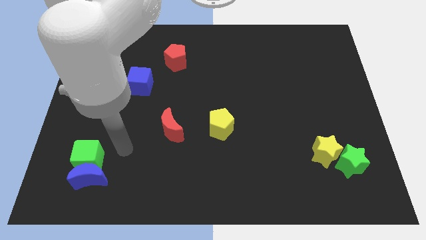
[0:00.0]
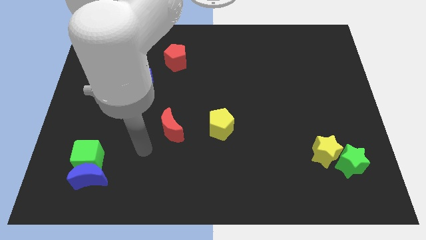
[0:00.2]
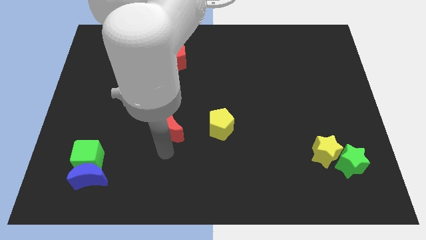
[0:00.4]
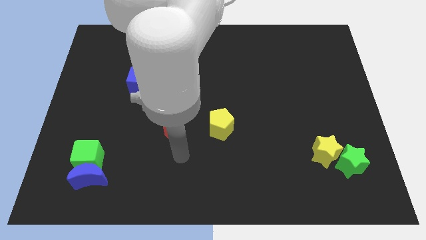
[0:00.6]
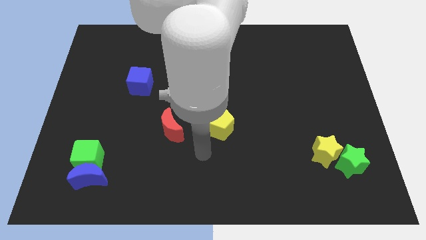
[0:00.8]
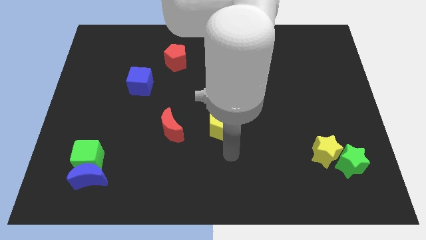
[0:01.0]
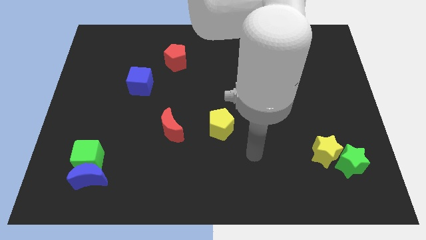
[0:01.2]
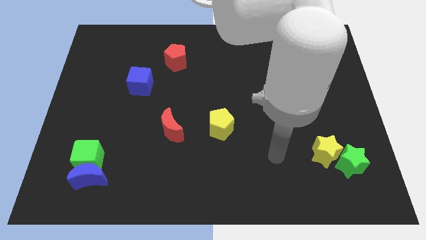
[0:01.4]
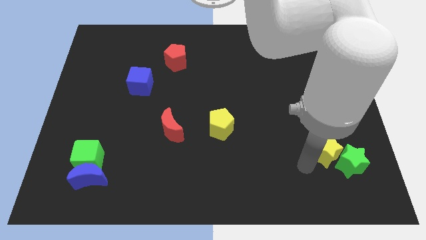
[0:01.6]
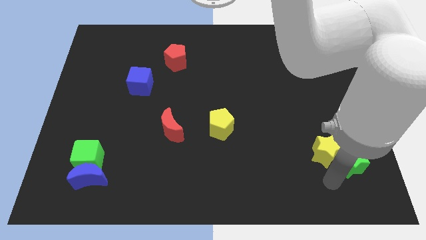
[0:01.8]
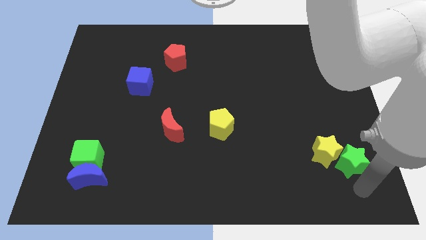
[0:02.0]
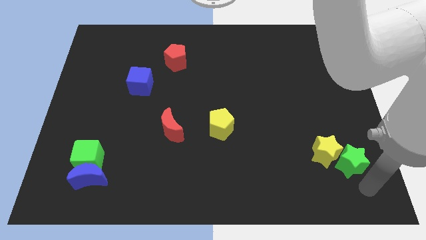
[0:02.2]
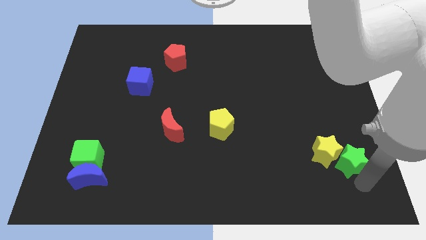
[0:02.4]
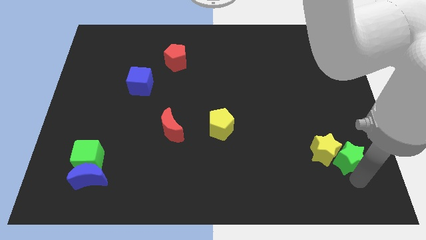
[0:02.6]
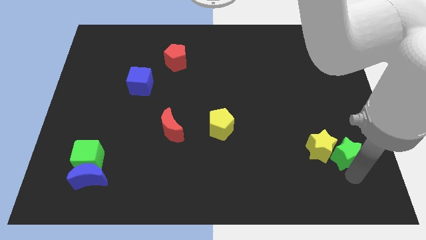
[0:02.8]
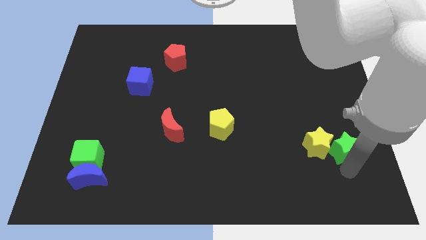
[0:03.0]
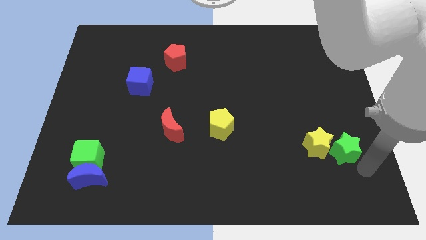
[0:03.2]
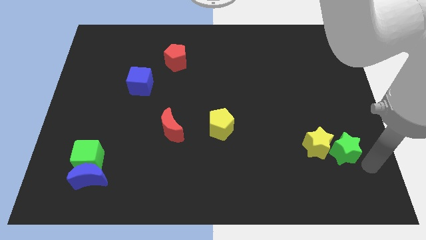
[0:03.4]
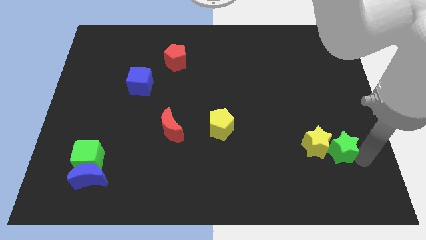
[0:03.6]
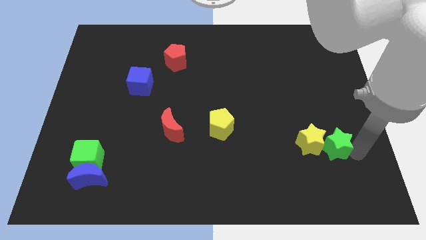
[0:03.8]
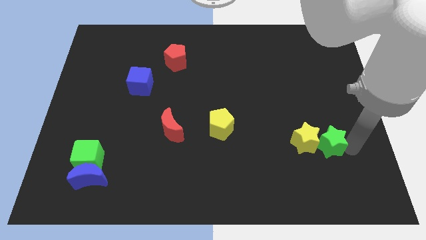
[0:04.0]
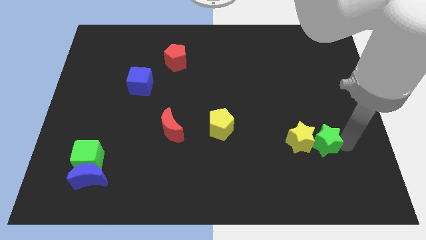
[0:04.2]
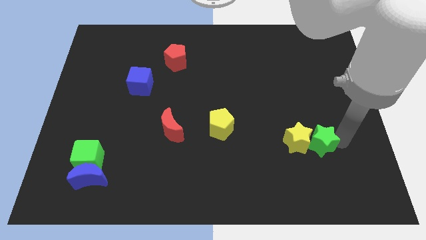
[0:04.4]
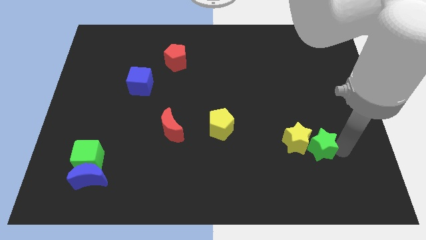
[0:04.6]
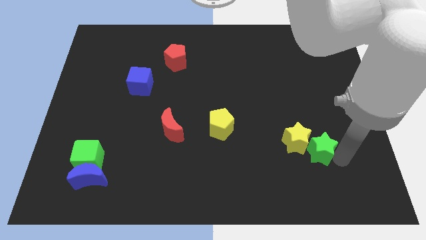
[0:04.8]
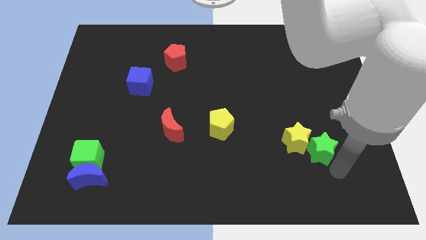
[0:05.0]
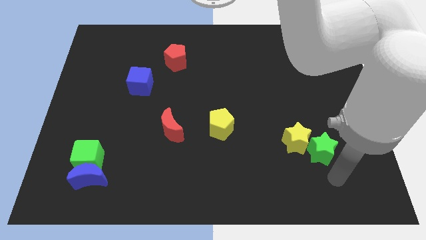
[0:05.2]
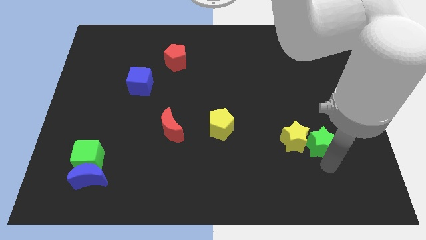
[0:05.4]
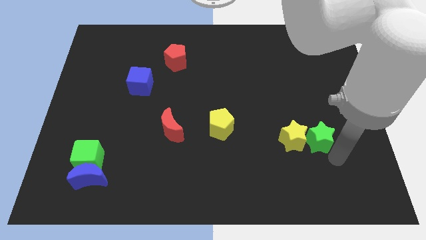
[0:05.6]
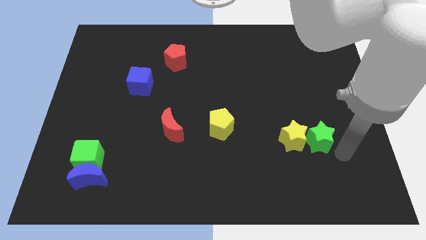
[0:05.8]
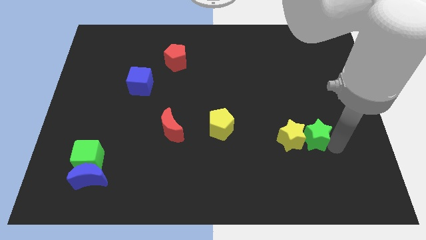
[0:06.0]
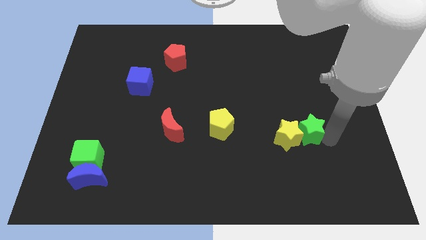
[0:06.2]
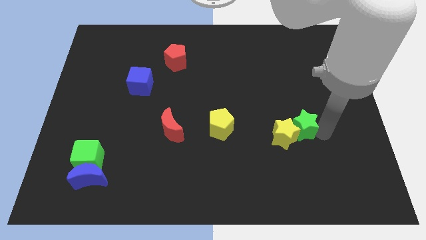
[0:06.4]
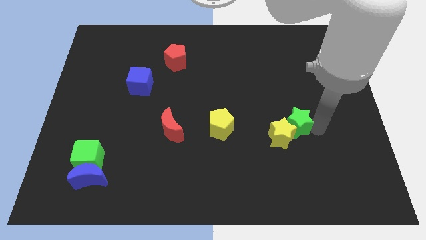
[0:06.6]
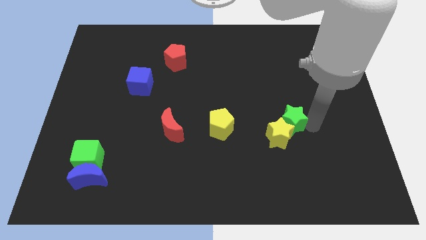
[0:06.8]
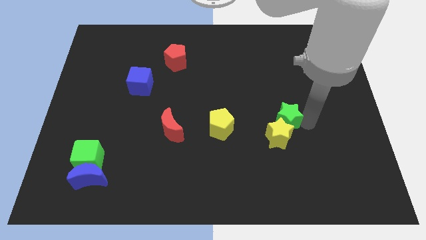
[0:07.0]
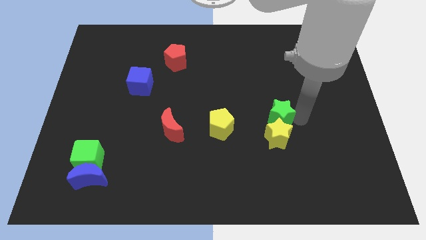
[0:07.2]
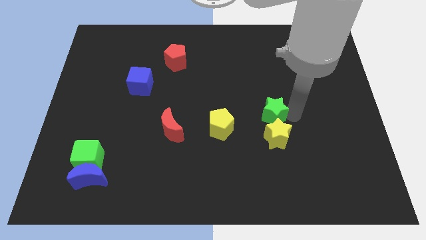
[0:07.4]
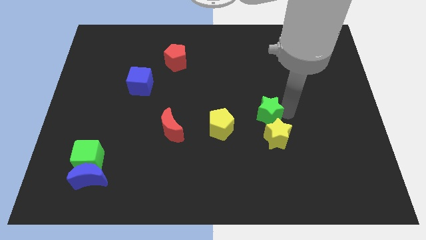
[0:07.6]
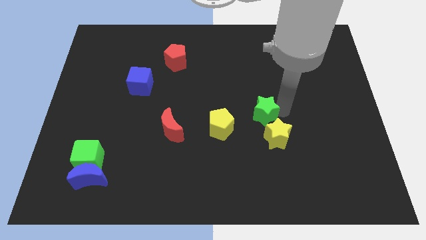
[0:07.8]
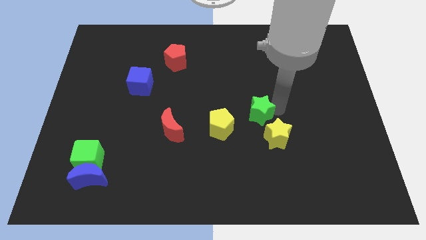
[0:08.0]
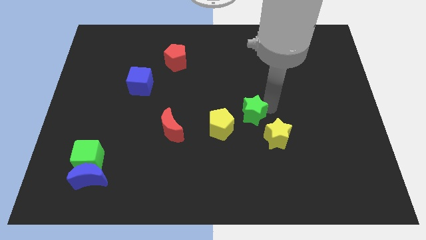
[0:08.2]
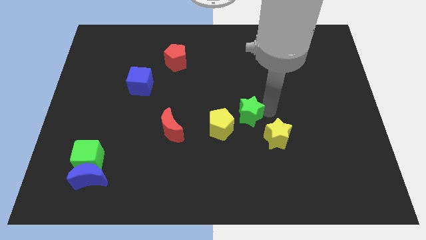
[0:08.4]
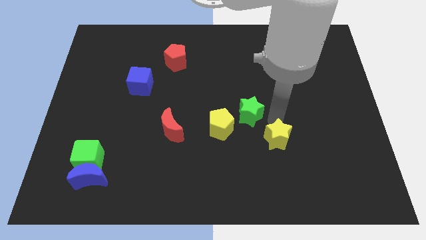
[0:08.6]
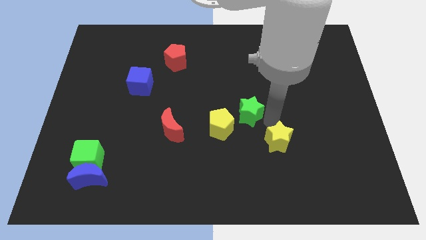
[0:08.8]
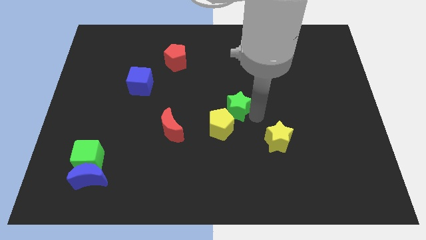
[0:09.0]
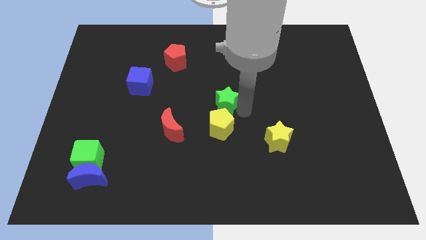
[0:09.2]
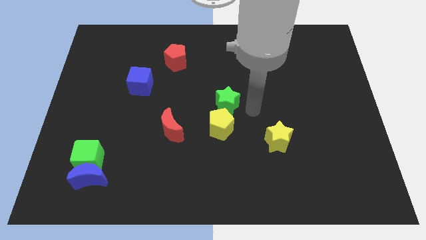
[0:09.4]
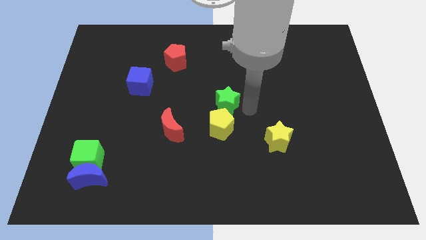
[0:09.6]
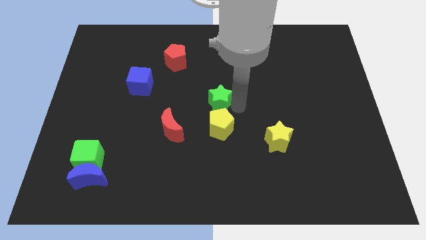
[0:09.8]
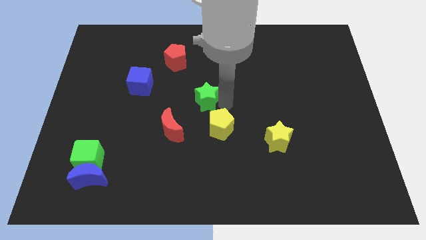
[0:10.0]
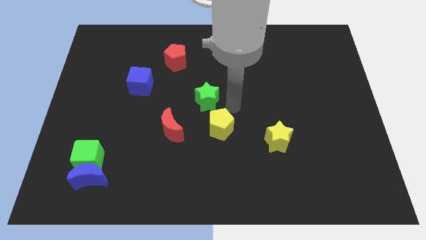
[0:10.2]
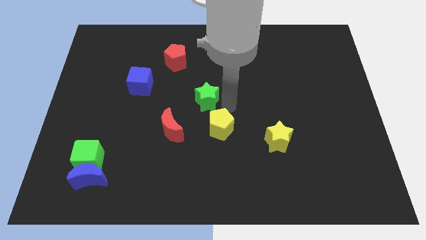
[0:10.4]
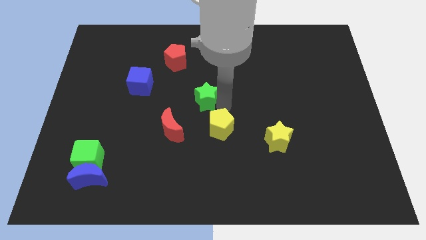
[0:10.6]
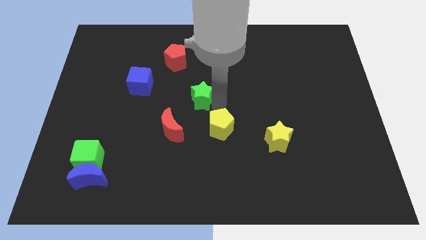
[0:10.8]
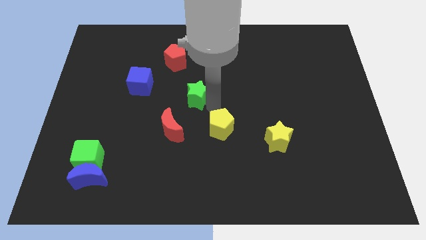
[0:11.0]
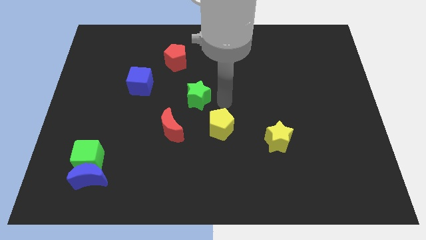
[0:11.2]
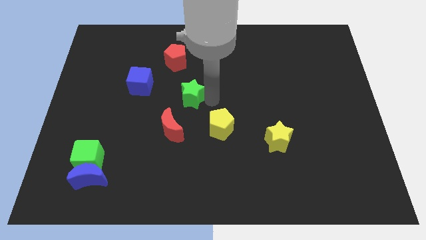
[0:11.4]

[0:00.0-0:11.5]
slide the green star above the red moon

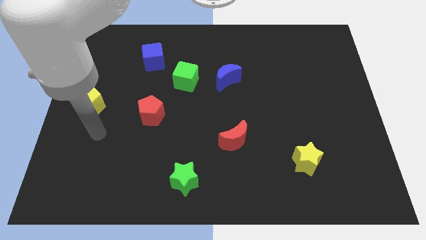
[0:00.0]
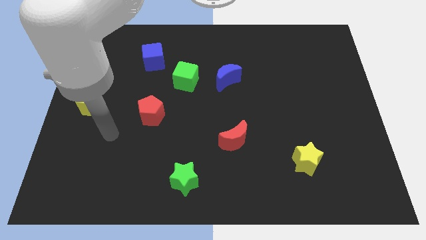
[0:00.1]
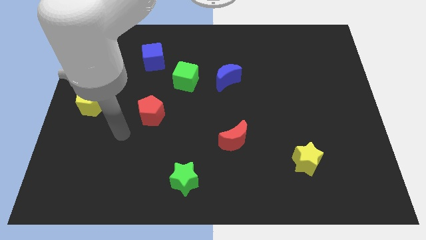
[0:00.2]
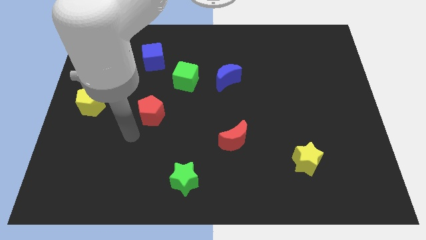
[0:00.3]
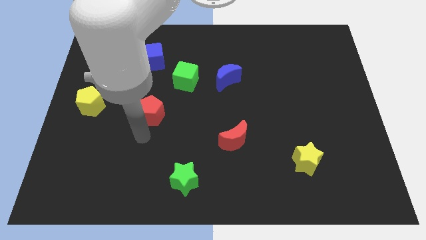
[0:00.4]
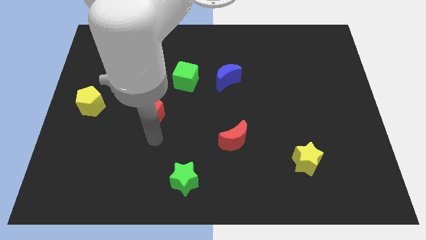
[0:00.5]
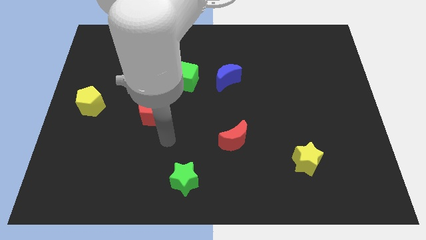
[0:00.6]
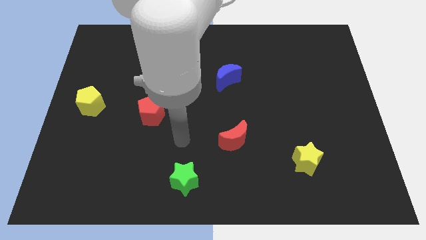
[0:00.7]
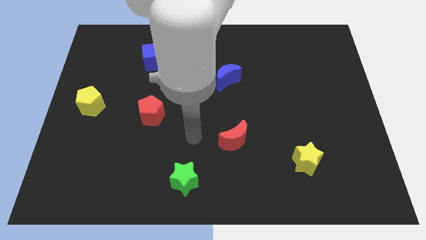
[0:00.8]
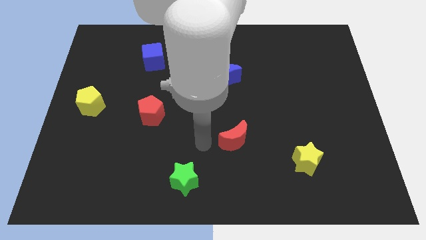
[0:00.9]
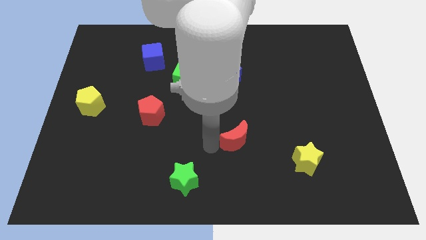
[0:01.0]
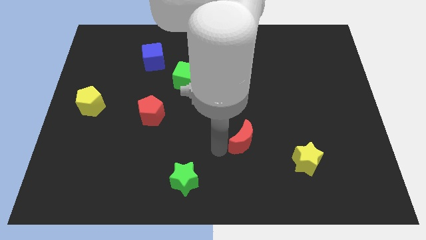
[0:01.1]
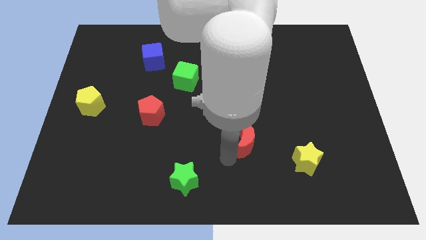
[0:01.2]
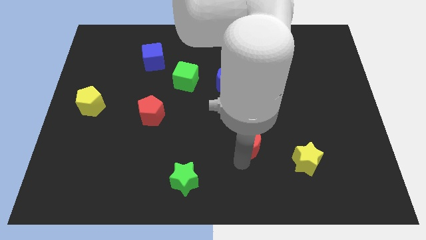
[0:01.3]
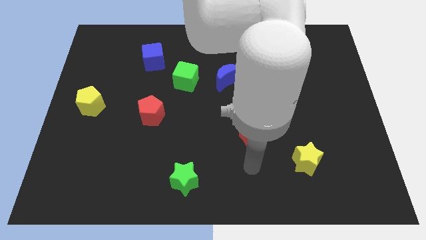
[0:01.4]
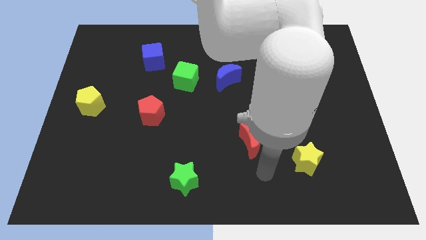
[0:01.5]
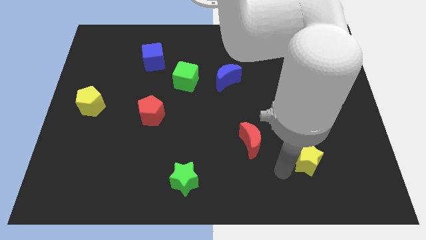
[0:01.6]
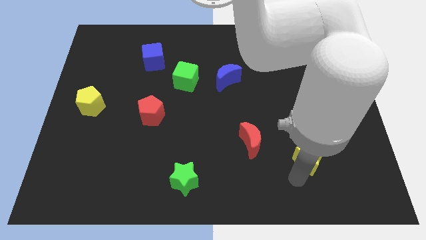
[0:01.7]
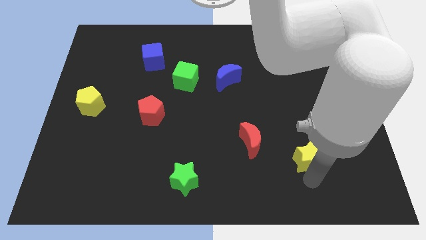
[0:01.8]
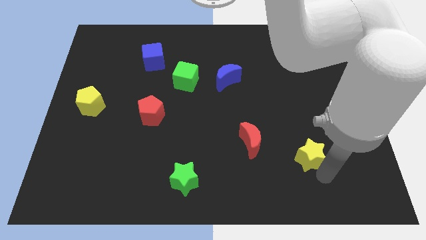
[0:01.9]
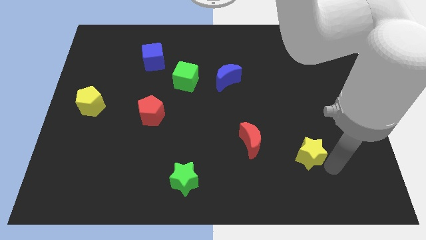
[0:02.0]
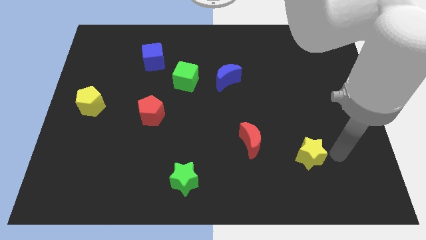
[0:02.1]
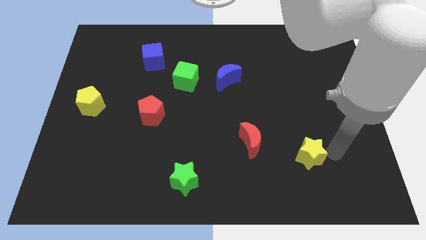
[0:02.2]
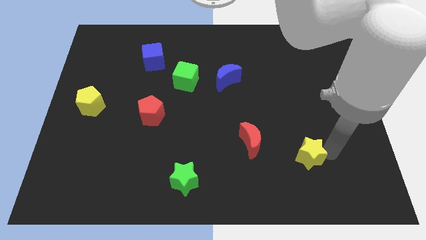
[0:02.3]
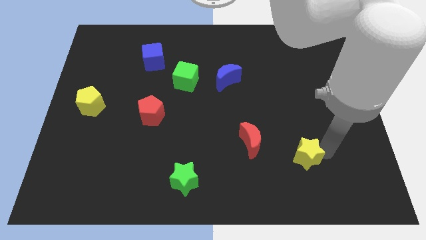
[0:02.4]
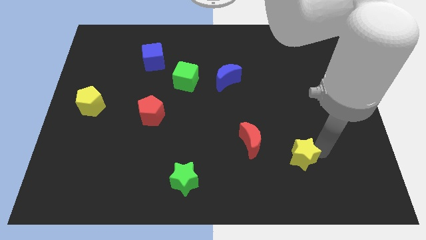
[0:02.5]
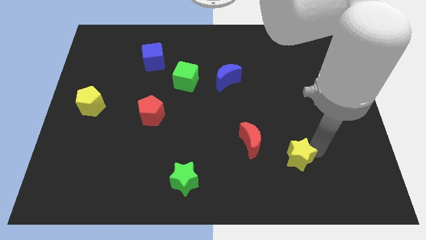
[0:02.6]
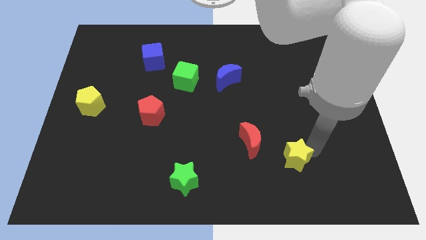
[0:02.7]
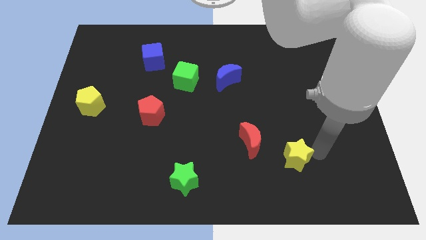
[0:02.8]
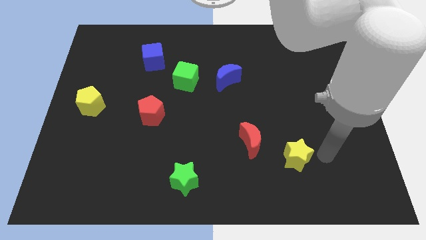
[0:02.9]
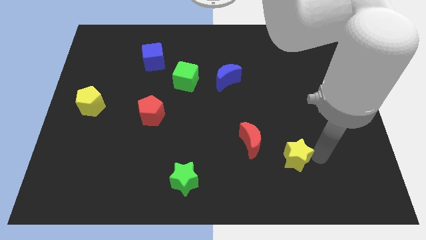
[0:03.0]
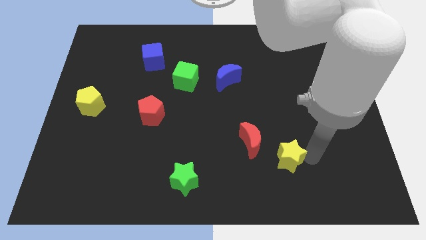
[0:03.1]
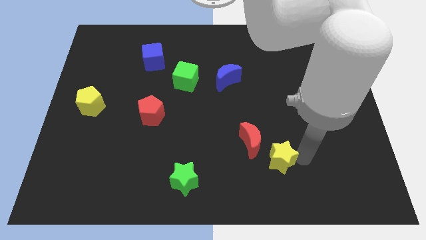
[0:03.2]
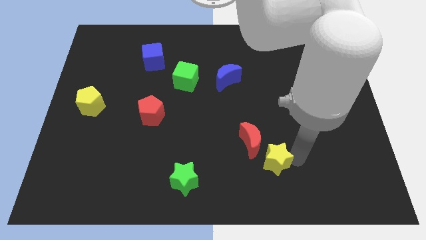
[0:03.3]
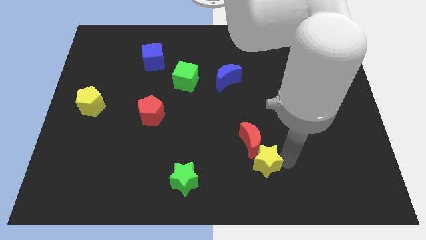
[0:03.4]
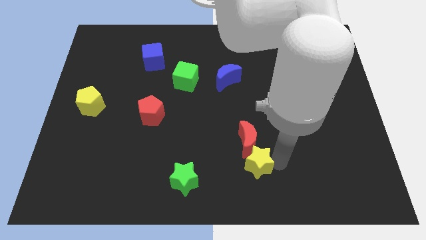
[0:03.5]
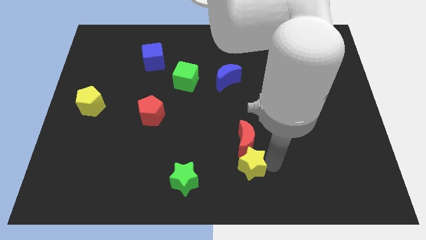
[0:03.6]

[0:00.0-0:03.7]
slide the yellow star diagonally down and to the left of the red moon
